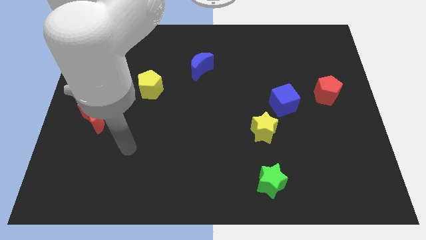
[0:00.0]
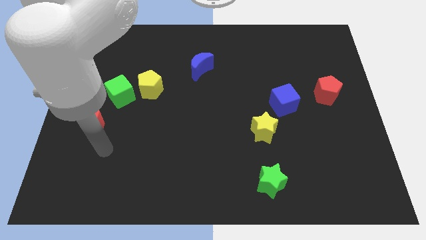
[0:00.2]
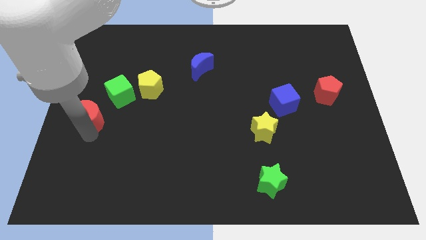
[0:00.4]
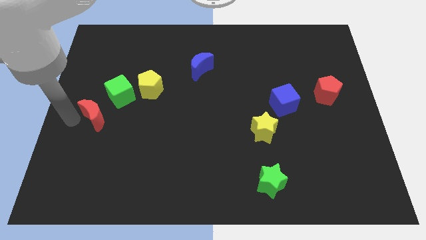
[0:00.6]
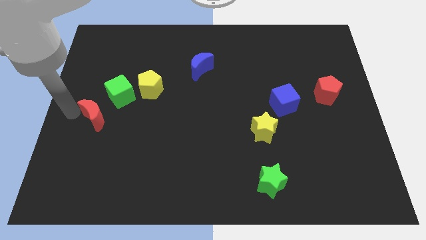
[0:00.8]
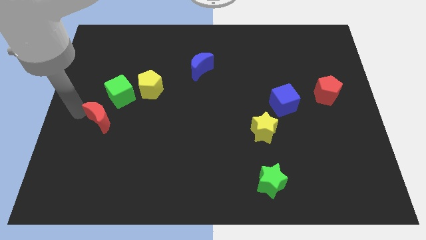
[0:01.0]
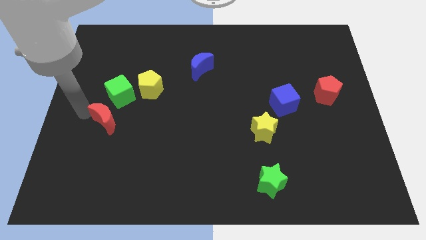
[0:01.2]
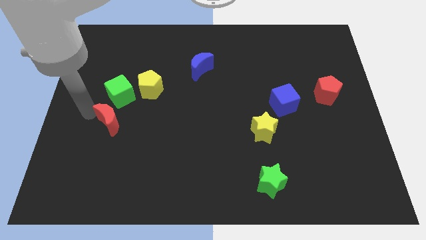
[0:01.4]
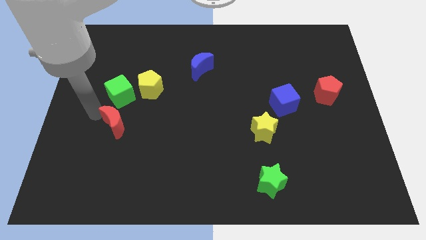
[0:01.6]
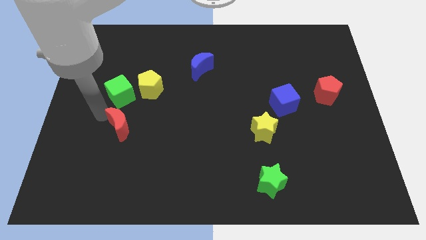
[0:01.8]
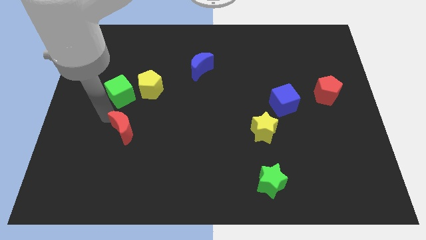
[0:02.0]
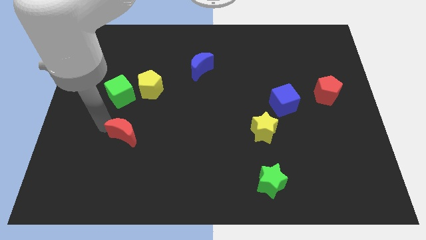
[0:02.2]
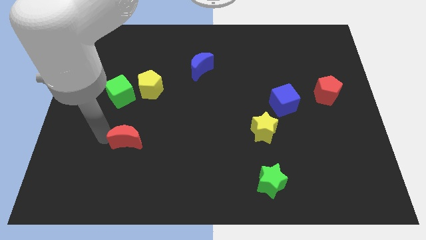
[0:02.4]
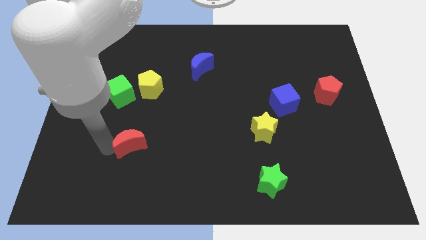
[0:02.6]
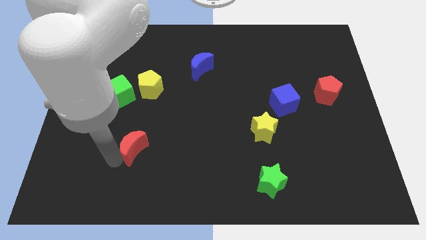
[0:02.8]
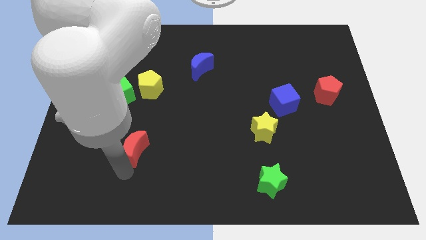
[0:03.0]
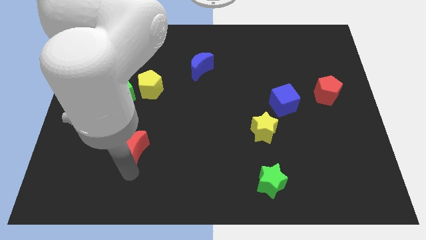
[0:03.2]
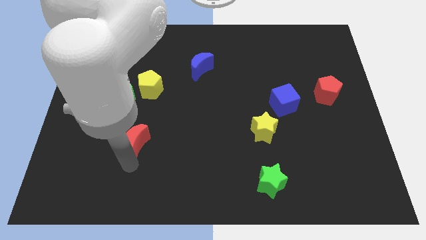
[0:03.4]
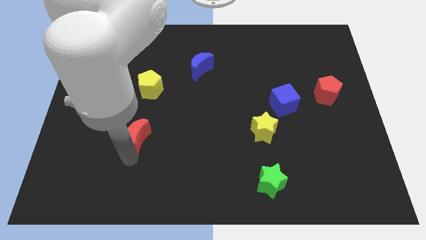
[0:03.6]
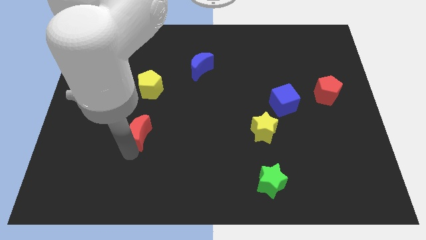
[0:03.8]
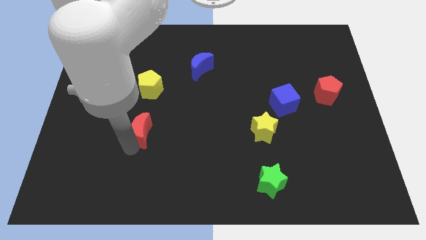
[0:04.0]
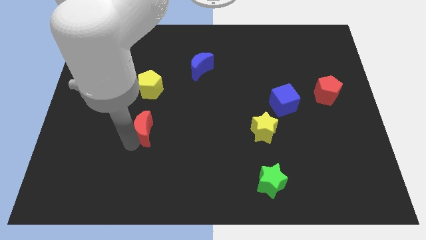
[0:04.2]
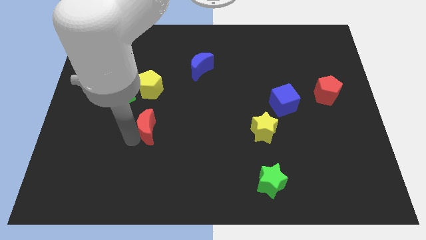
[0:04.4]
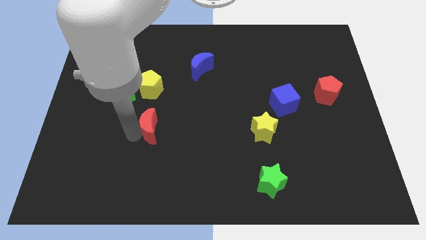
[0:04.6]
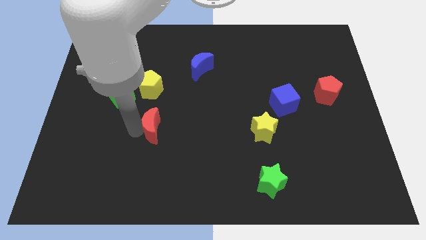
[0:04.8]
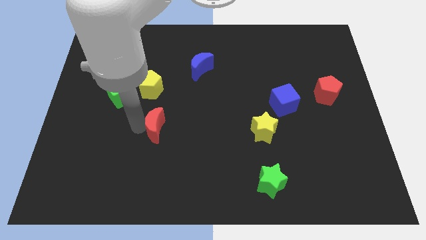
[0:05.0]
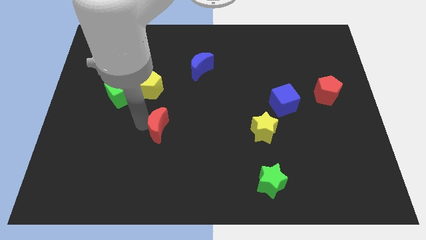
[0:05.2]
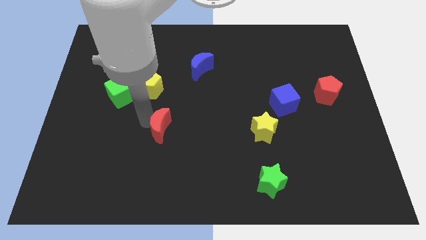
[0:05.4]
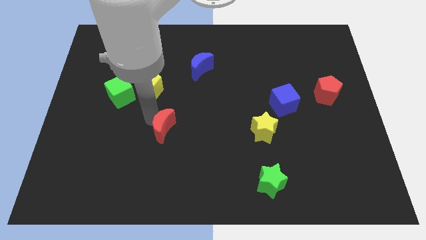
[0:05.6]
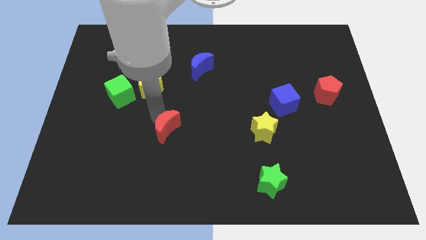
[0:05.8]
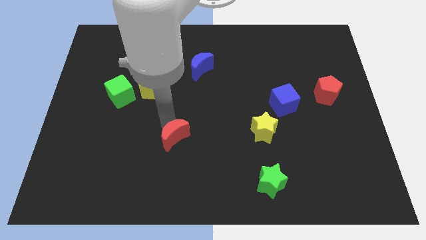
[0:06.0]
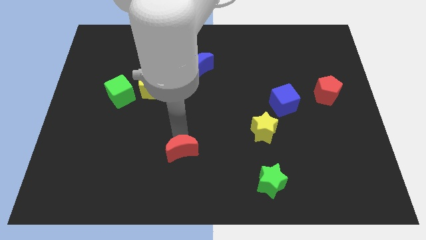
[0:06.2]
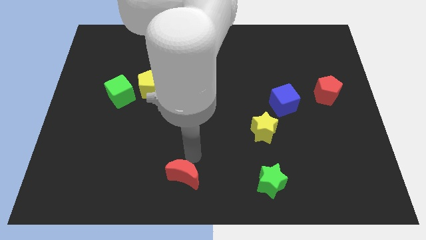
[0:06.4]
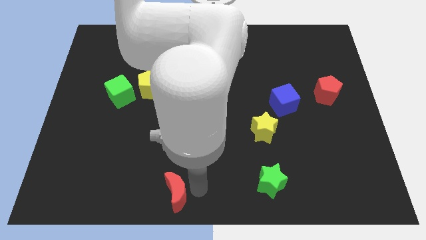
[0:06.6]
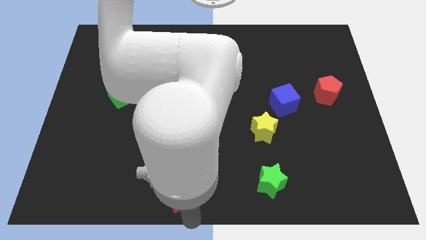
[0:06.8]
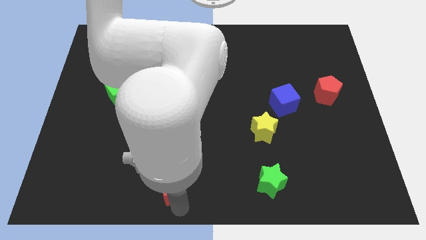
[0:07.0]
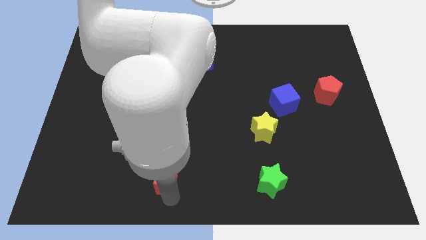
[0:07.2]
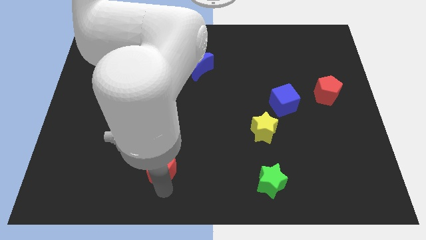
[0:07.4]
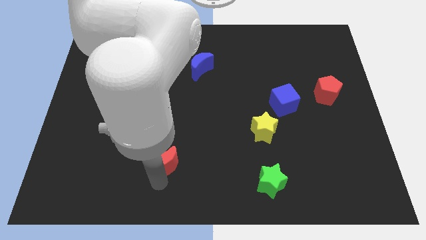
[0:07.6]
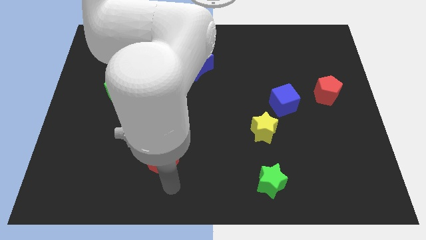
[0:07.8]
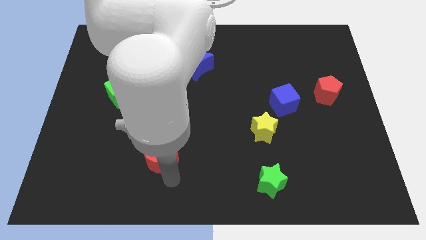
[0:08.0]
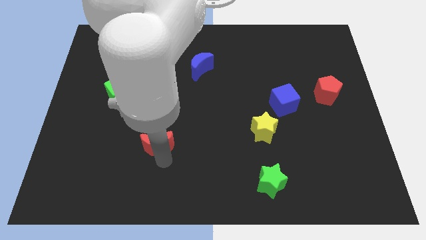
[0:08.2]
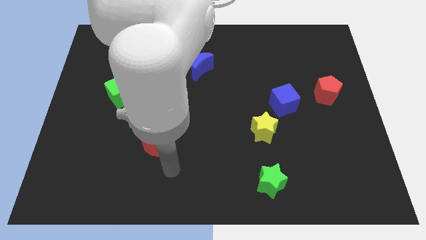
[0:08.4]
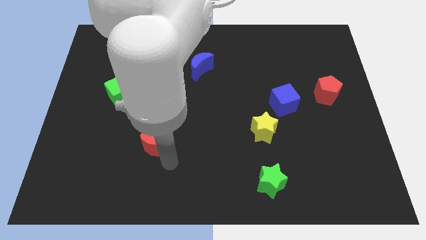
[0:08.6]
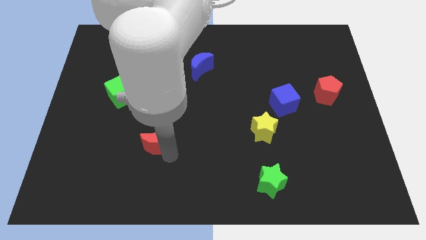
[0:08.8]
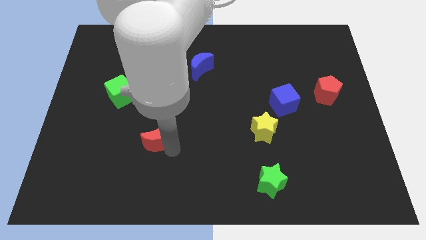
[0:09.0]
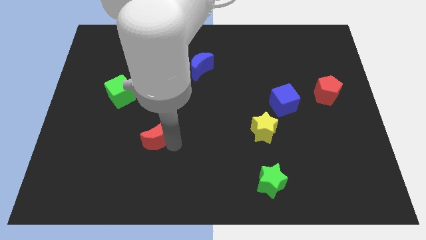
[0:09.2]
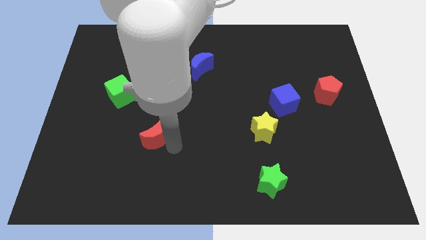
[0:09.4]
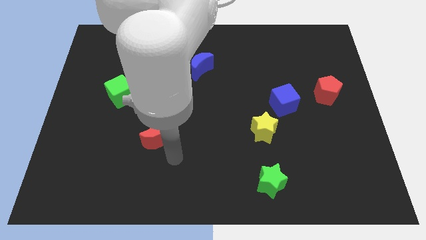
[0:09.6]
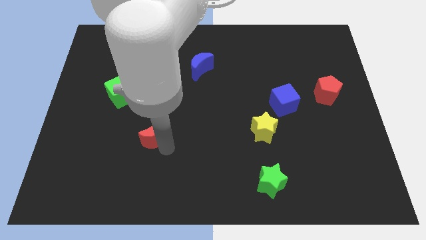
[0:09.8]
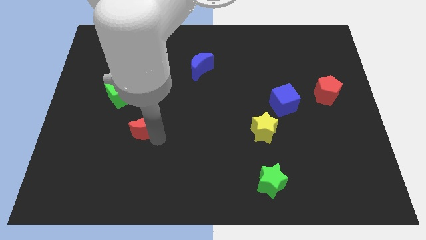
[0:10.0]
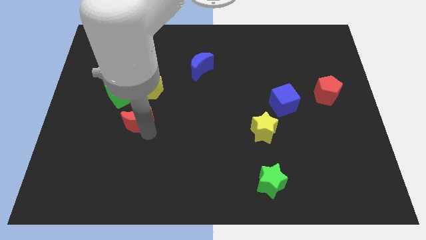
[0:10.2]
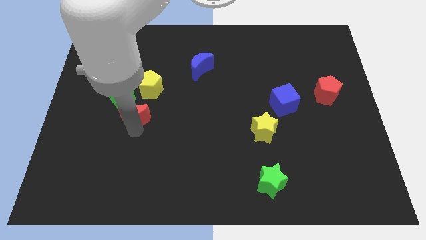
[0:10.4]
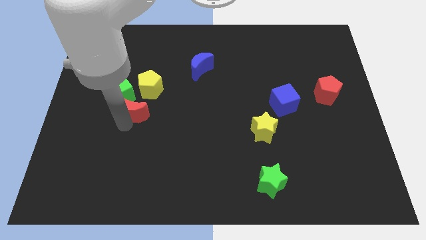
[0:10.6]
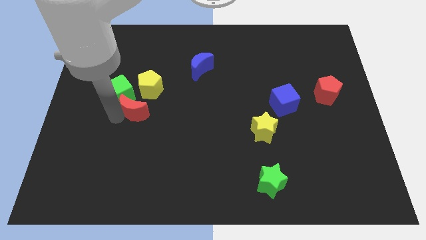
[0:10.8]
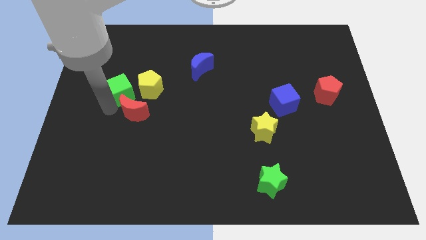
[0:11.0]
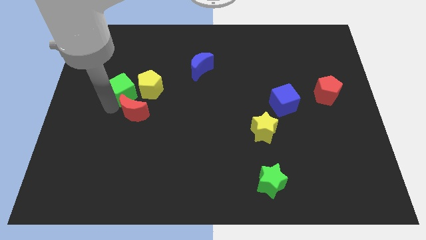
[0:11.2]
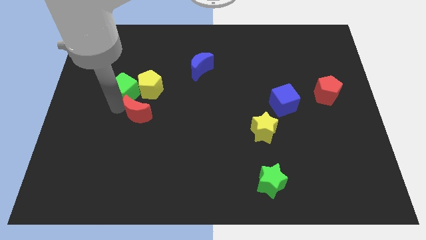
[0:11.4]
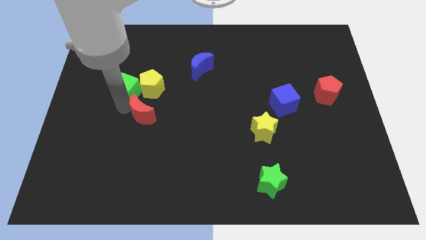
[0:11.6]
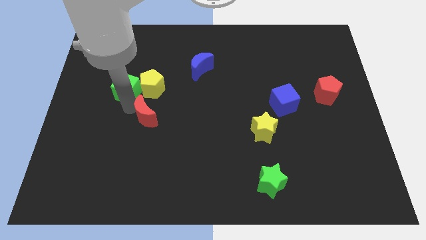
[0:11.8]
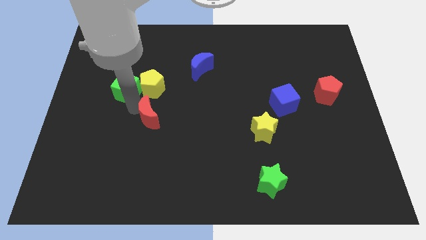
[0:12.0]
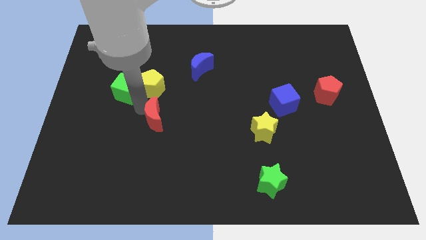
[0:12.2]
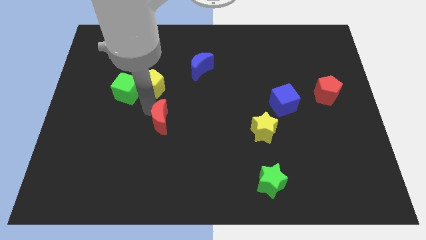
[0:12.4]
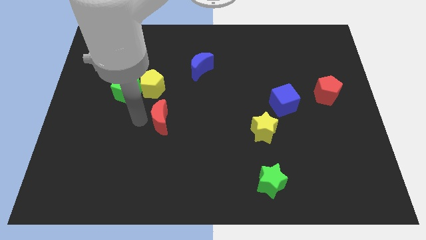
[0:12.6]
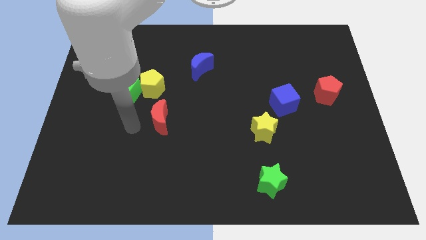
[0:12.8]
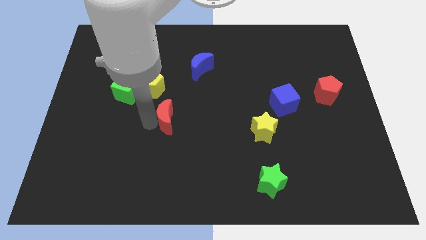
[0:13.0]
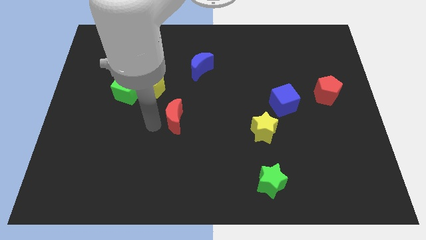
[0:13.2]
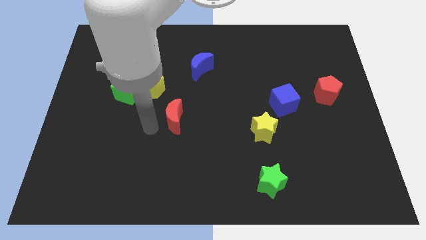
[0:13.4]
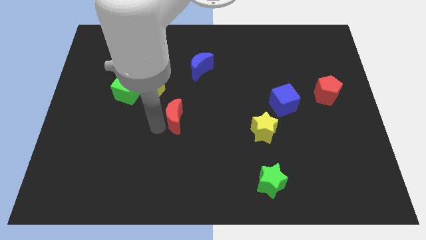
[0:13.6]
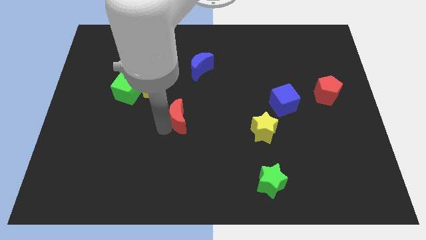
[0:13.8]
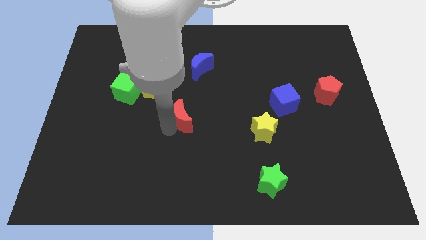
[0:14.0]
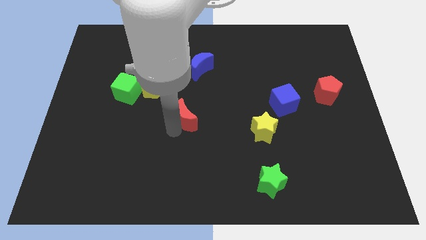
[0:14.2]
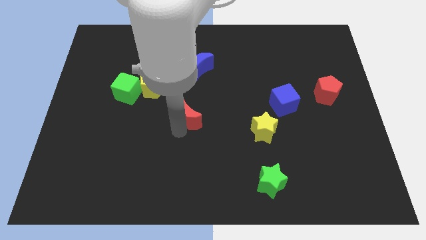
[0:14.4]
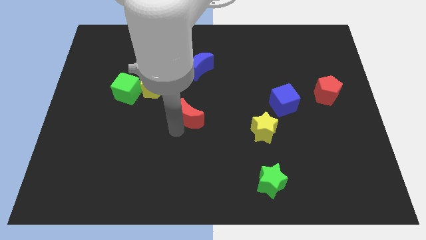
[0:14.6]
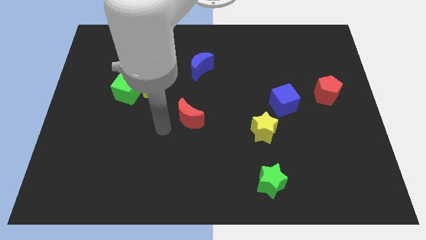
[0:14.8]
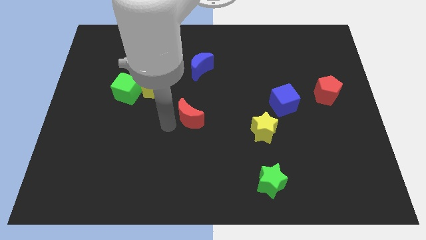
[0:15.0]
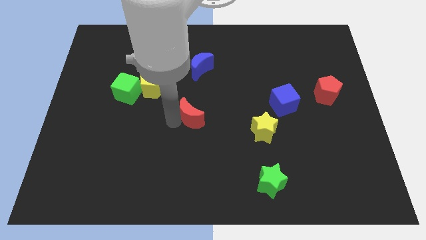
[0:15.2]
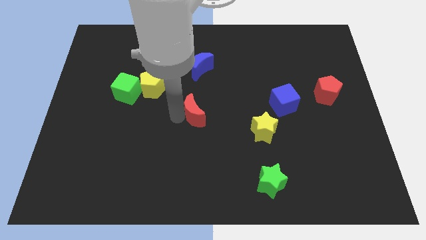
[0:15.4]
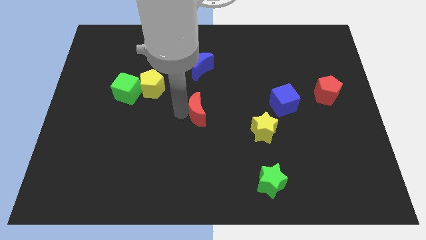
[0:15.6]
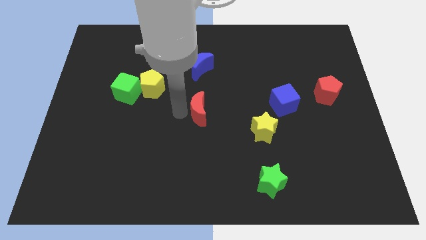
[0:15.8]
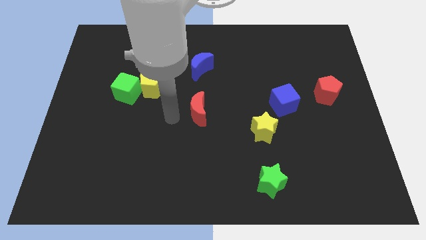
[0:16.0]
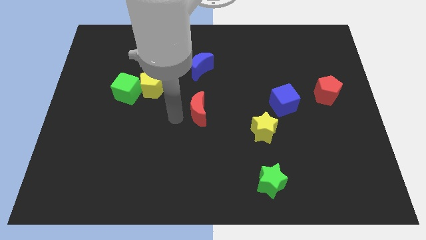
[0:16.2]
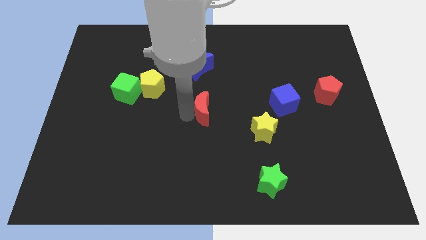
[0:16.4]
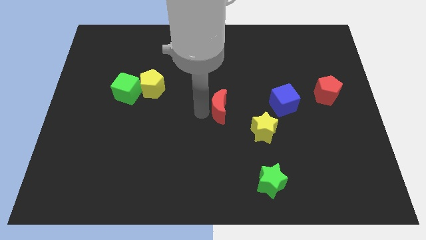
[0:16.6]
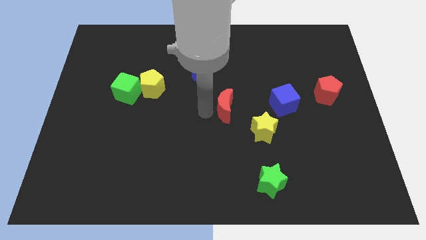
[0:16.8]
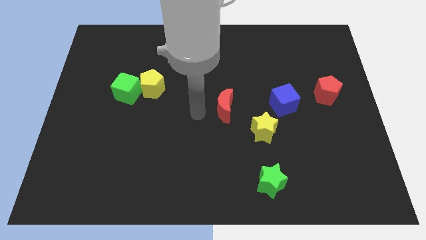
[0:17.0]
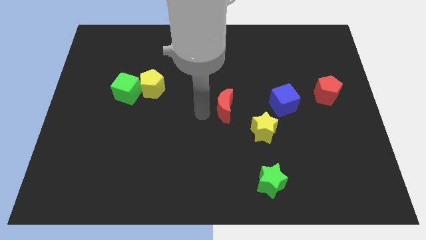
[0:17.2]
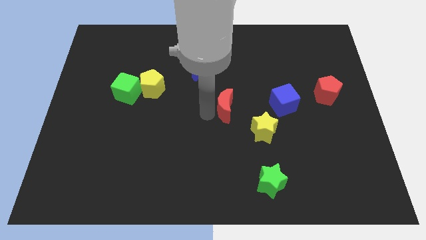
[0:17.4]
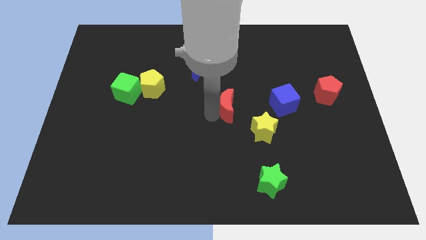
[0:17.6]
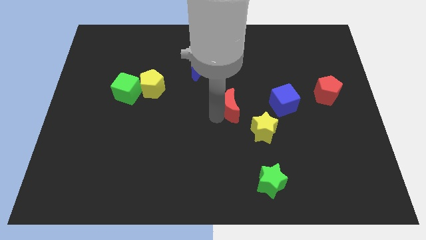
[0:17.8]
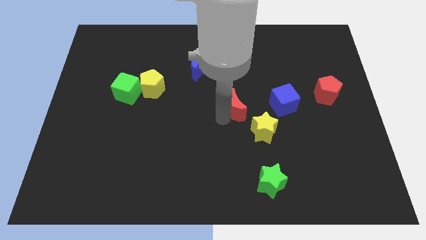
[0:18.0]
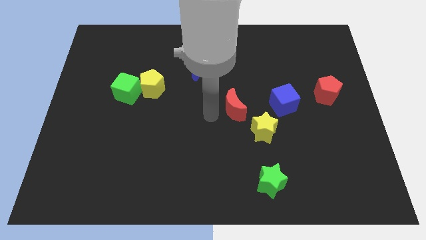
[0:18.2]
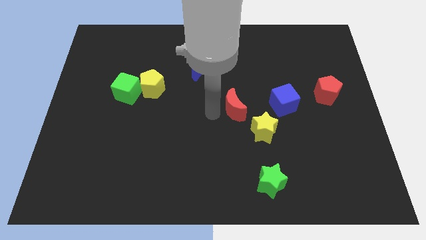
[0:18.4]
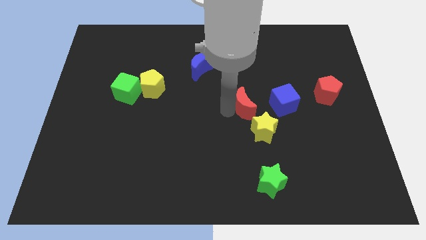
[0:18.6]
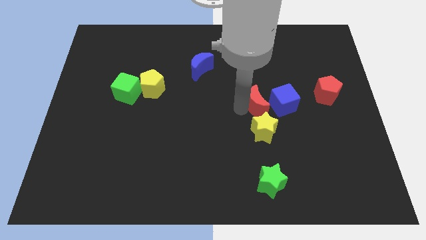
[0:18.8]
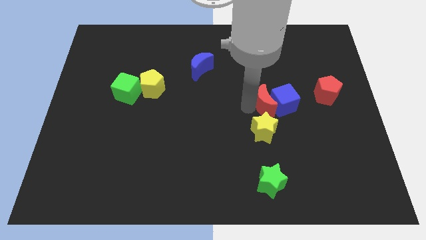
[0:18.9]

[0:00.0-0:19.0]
push the red moon close to the blue cube
